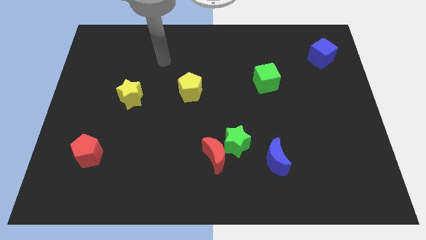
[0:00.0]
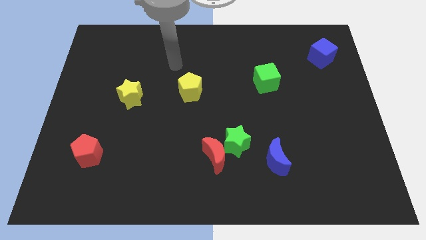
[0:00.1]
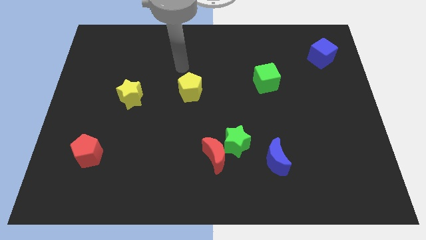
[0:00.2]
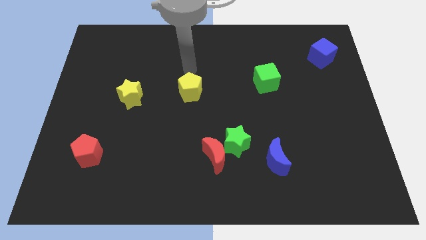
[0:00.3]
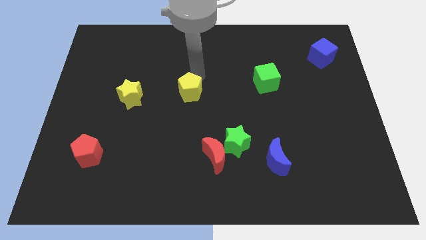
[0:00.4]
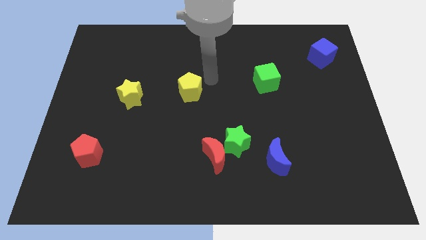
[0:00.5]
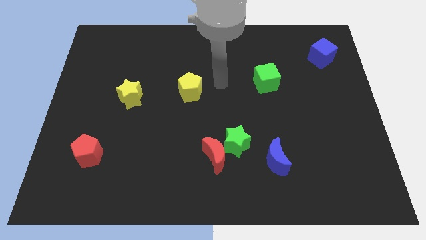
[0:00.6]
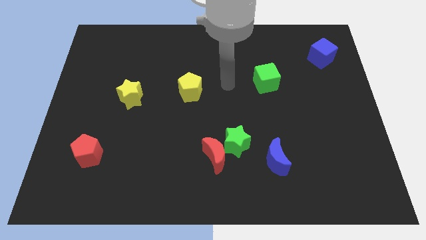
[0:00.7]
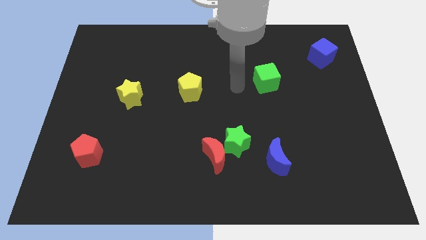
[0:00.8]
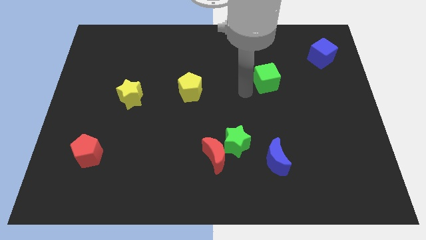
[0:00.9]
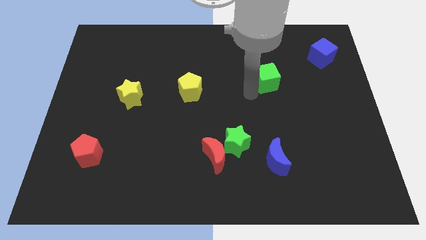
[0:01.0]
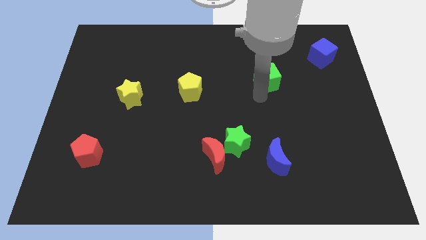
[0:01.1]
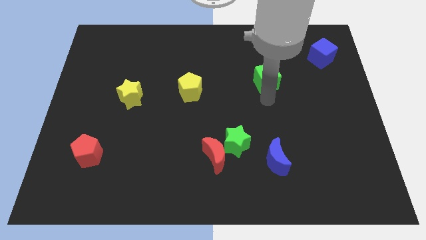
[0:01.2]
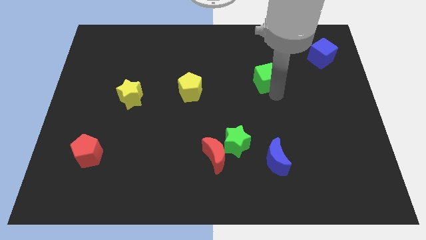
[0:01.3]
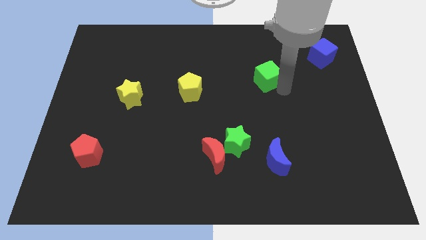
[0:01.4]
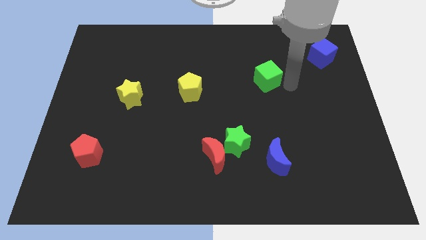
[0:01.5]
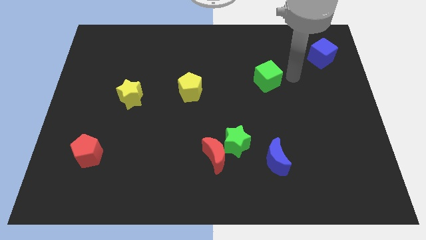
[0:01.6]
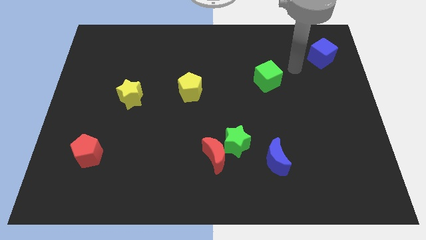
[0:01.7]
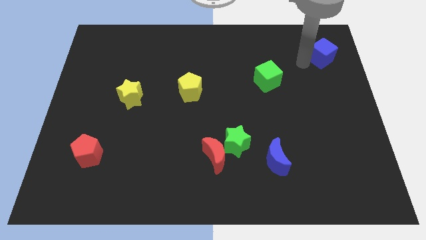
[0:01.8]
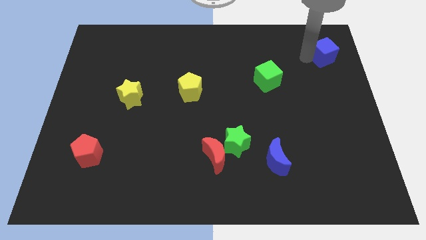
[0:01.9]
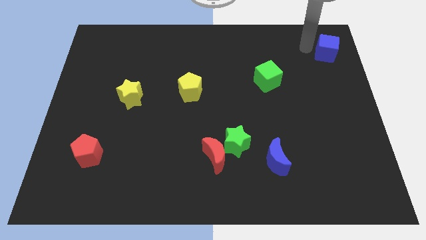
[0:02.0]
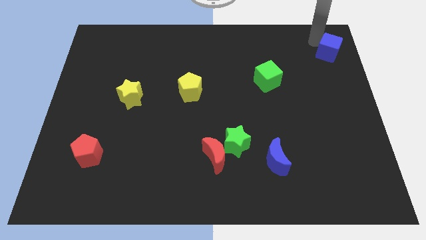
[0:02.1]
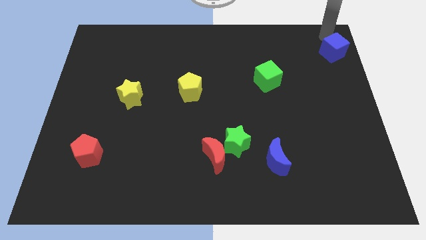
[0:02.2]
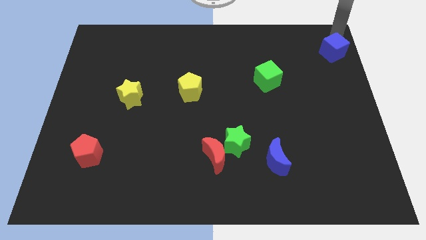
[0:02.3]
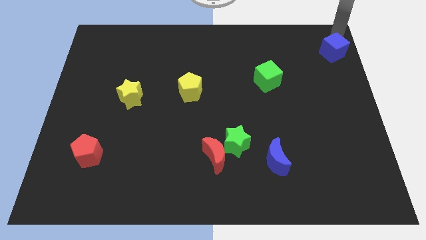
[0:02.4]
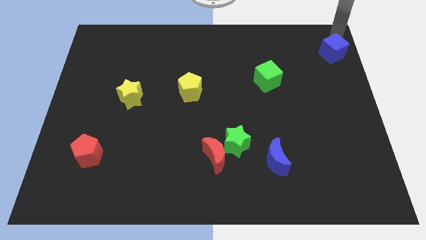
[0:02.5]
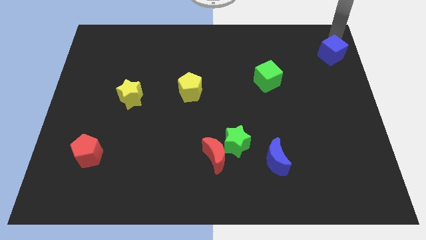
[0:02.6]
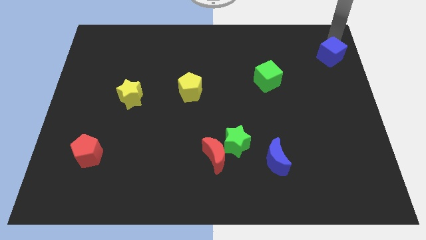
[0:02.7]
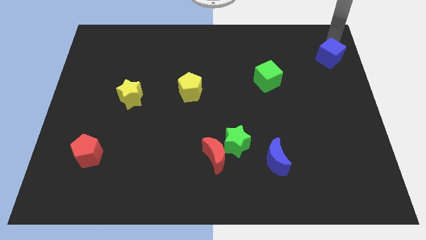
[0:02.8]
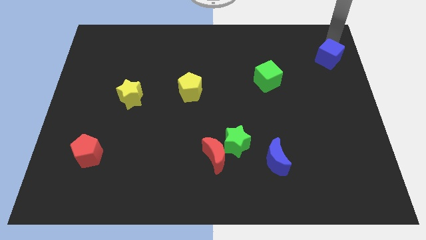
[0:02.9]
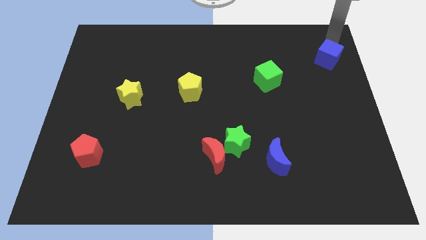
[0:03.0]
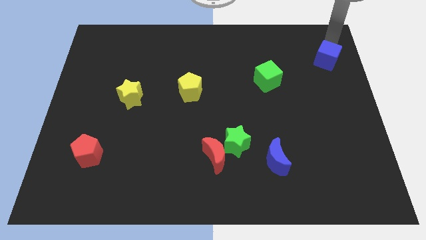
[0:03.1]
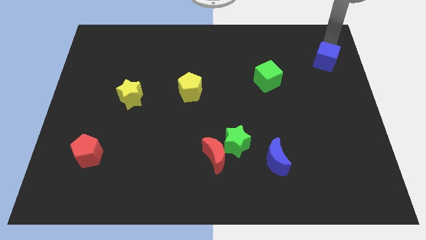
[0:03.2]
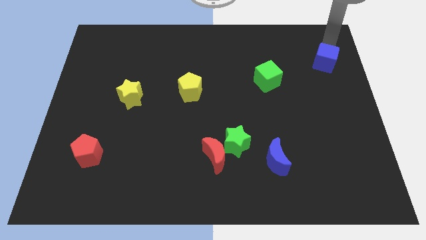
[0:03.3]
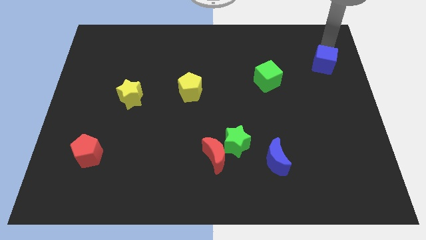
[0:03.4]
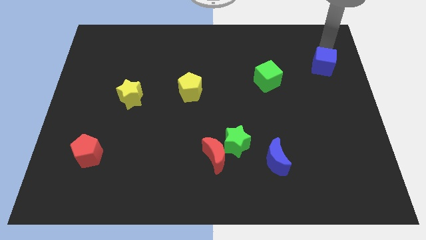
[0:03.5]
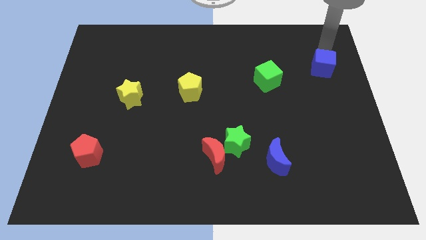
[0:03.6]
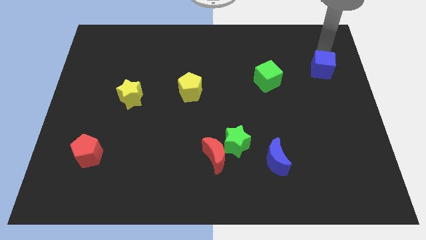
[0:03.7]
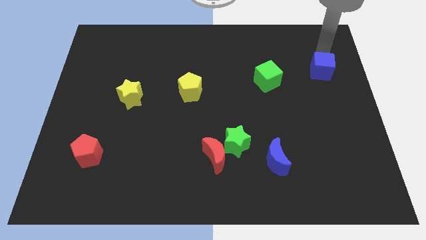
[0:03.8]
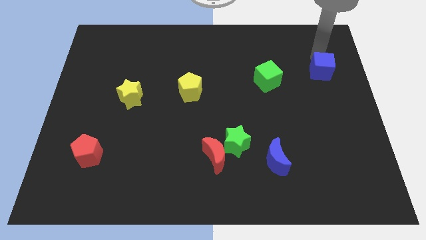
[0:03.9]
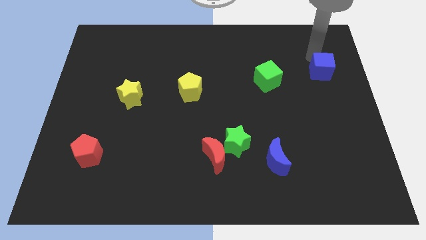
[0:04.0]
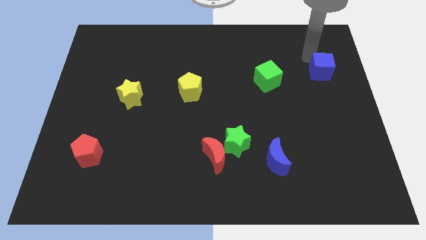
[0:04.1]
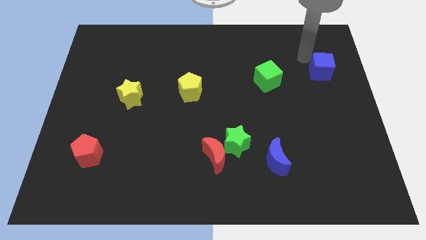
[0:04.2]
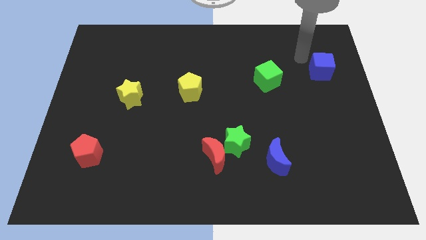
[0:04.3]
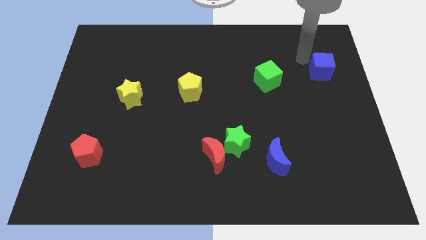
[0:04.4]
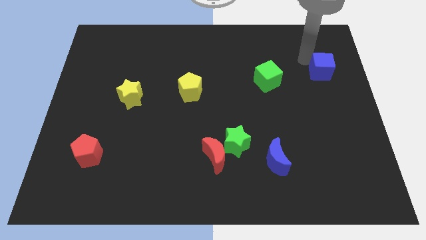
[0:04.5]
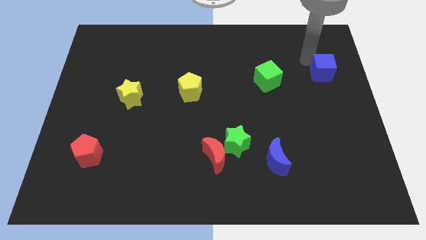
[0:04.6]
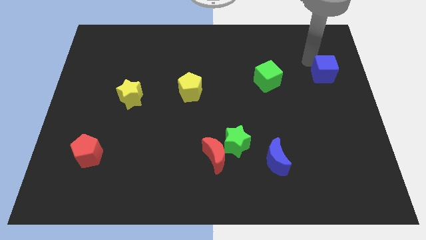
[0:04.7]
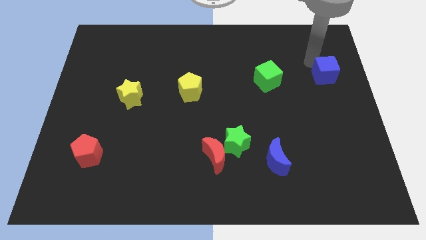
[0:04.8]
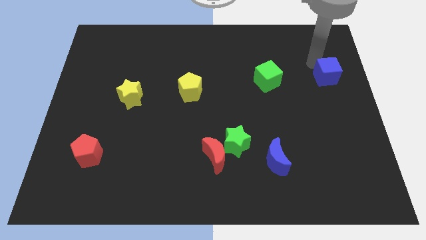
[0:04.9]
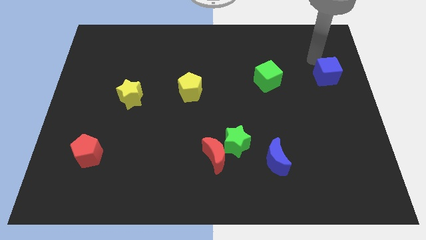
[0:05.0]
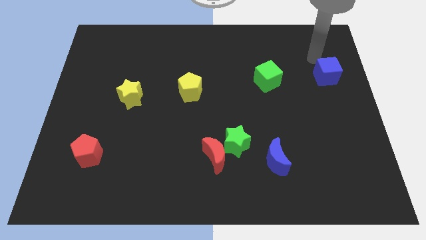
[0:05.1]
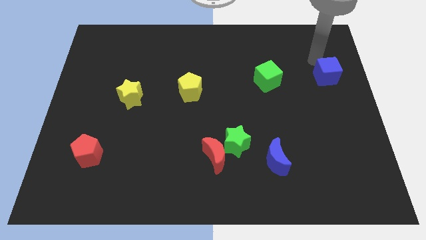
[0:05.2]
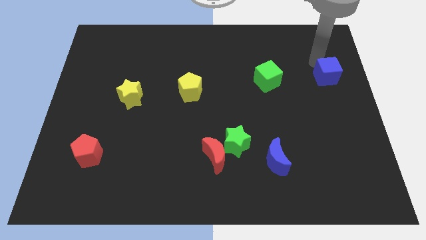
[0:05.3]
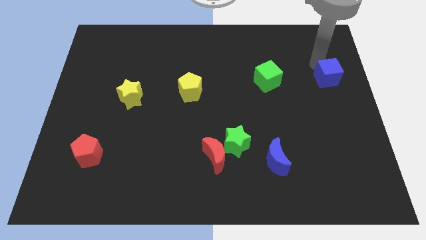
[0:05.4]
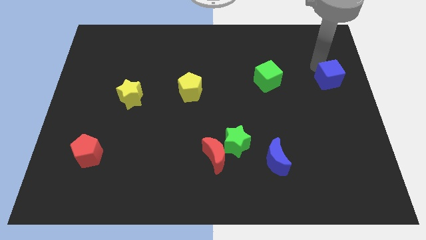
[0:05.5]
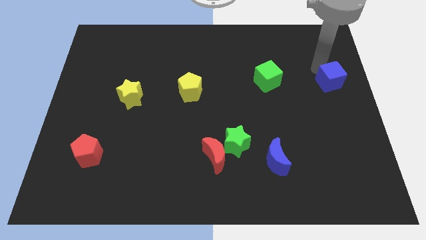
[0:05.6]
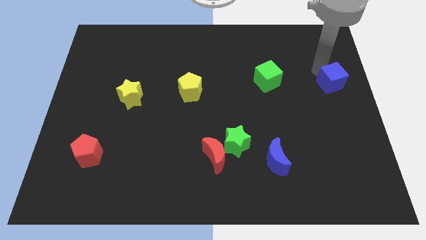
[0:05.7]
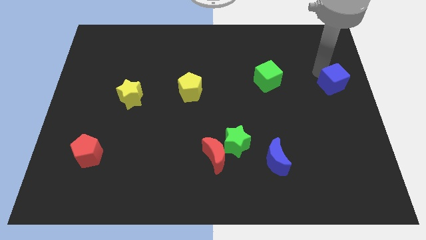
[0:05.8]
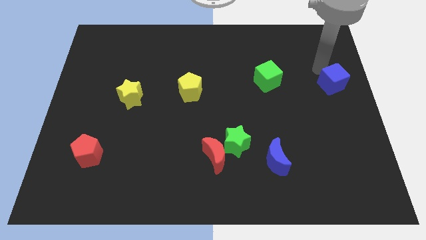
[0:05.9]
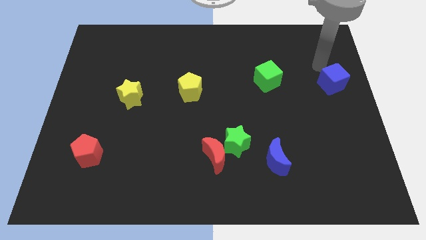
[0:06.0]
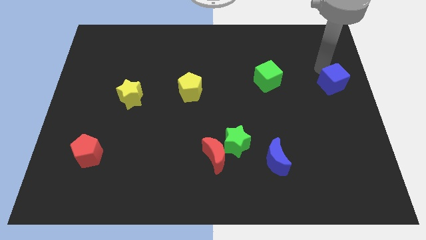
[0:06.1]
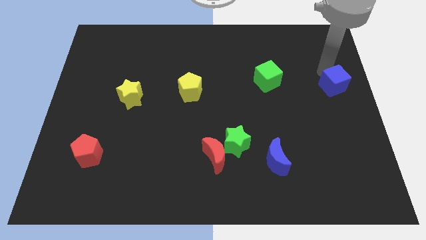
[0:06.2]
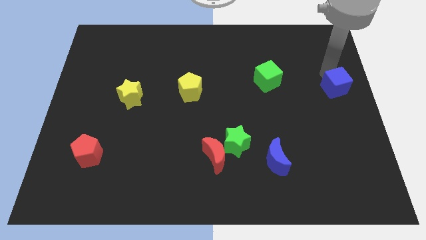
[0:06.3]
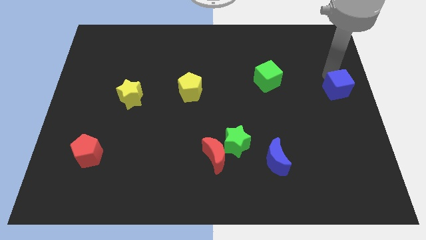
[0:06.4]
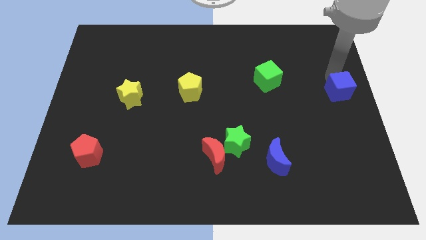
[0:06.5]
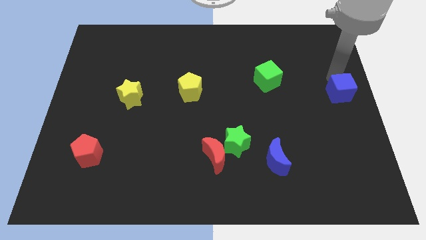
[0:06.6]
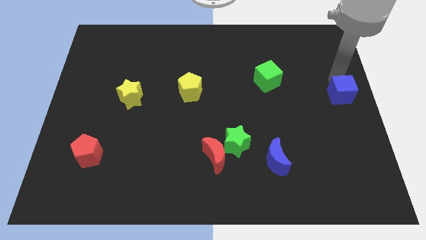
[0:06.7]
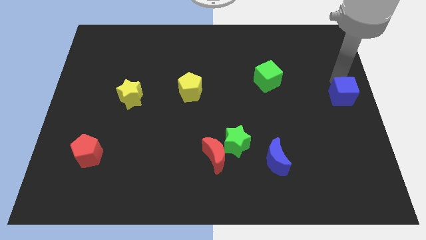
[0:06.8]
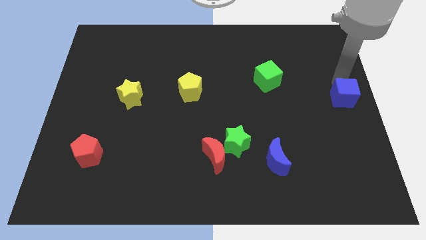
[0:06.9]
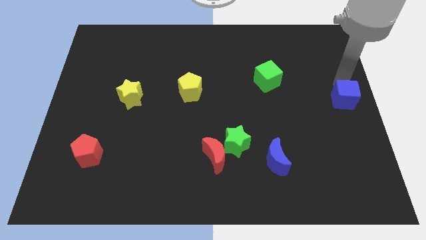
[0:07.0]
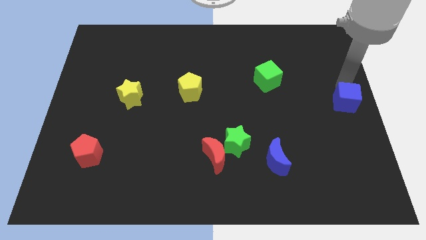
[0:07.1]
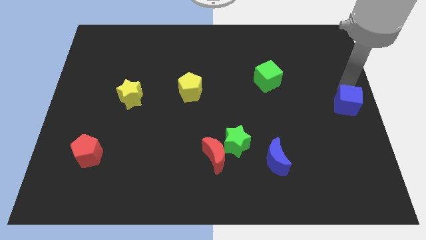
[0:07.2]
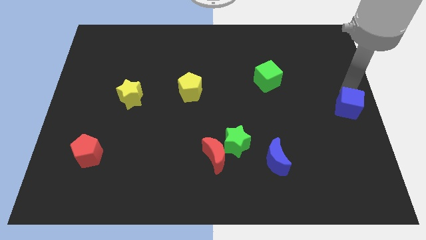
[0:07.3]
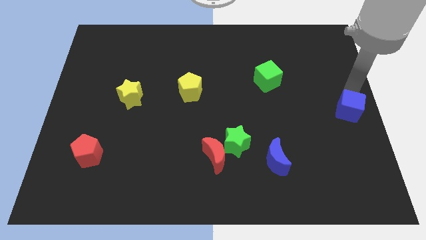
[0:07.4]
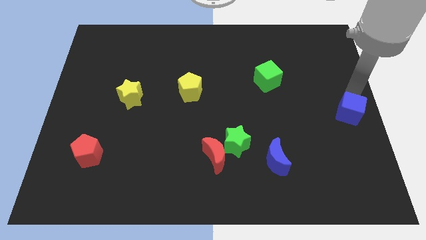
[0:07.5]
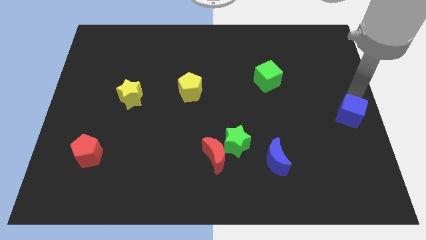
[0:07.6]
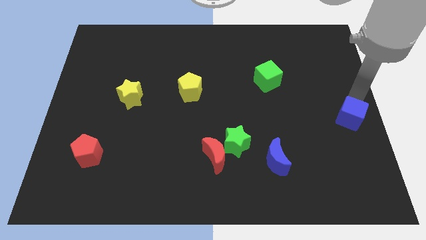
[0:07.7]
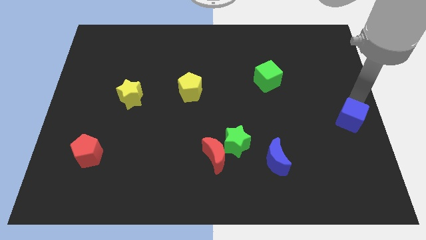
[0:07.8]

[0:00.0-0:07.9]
move the blue cube downwards

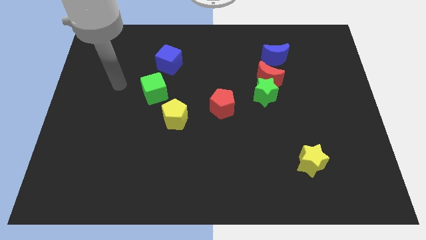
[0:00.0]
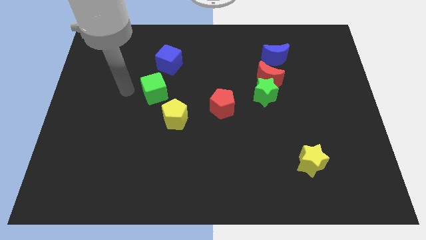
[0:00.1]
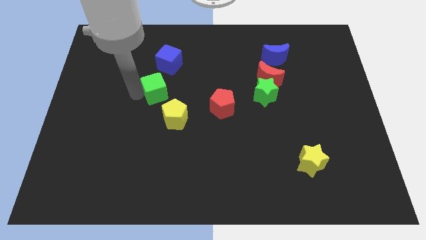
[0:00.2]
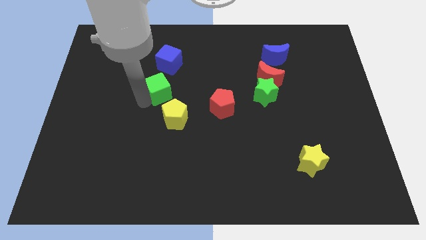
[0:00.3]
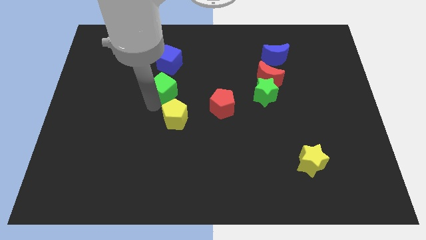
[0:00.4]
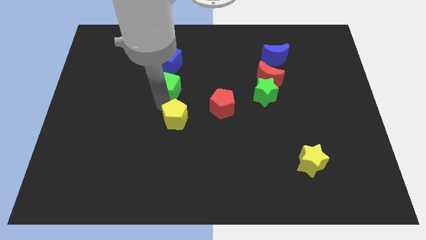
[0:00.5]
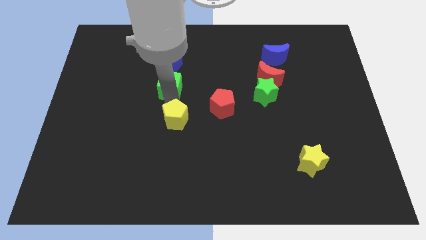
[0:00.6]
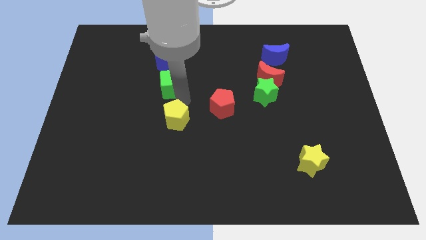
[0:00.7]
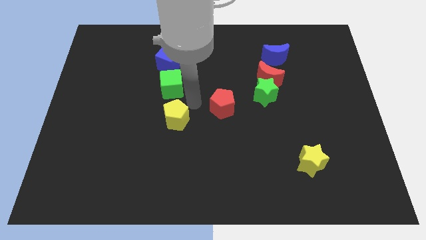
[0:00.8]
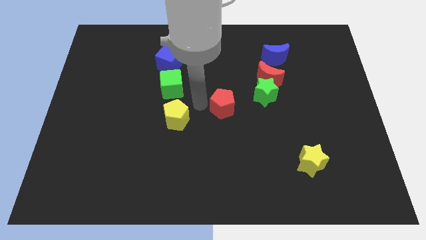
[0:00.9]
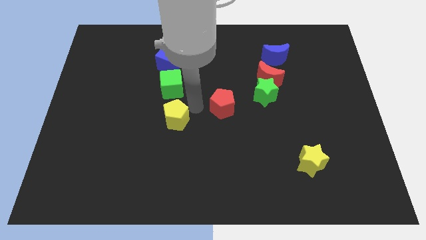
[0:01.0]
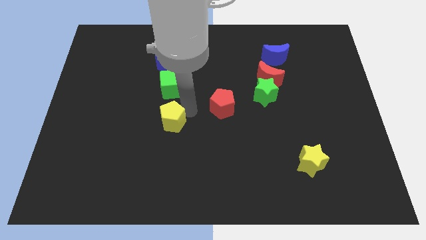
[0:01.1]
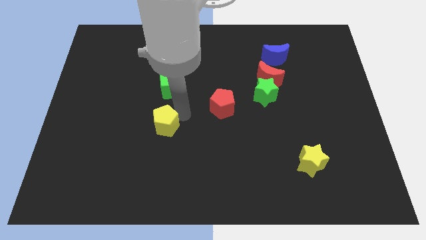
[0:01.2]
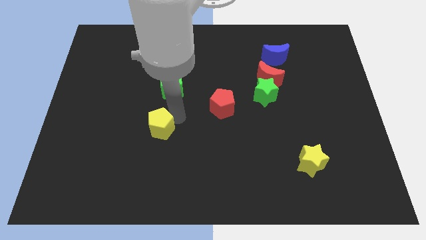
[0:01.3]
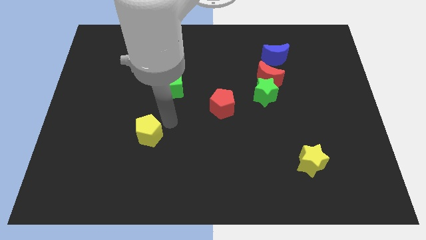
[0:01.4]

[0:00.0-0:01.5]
slightly slide the yellow pentagon downwards and to the left diagonally
